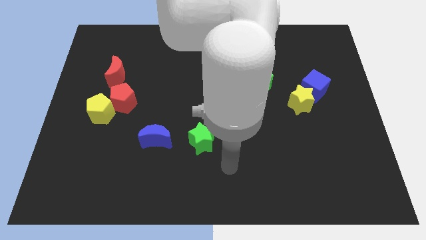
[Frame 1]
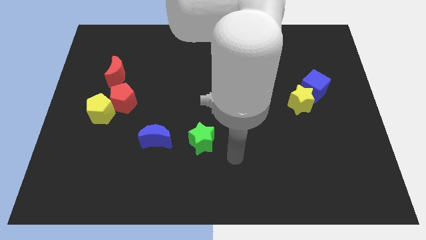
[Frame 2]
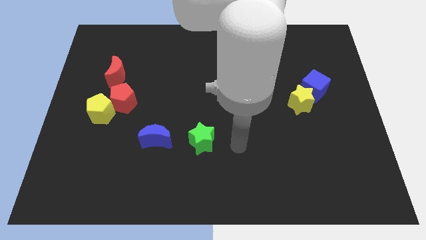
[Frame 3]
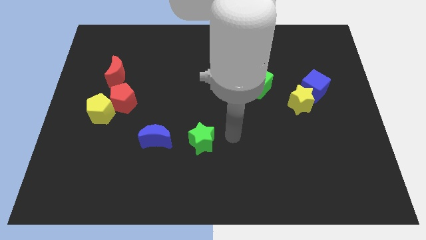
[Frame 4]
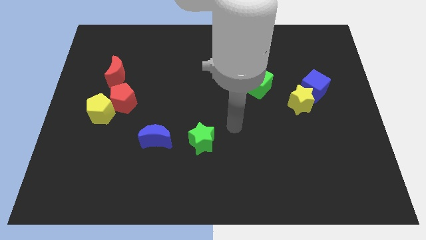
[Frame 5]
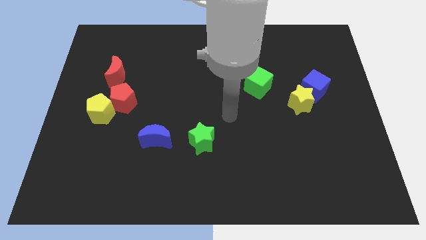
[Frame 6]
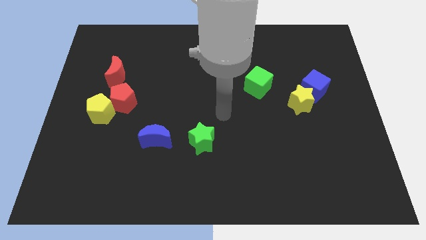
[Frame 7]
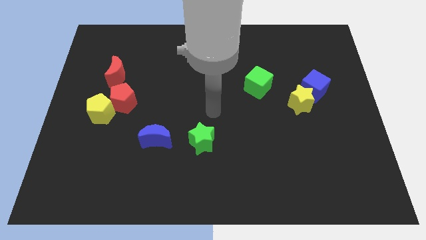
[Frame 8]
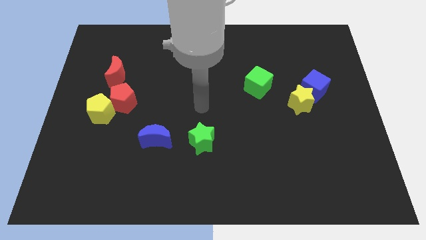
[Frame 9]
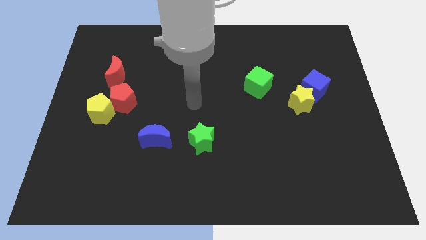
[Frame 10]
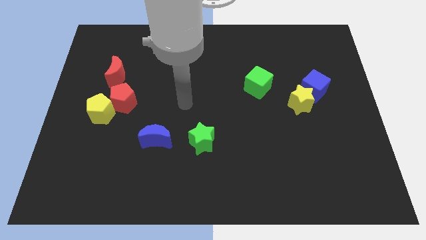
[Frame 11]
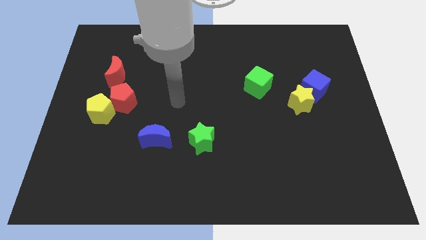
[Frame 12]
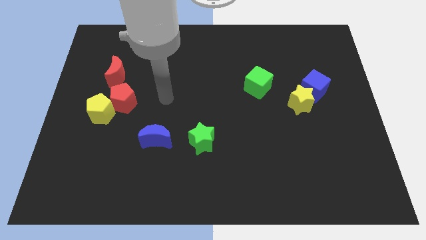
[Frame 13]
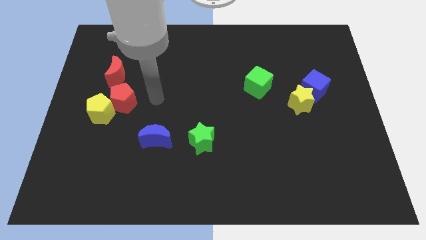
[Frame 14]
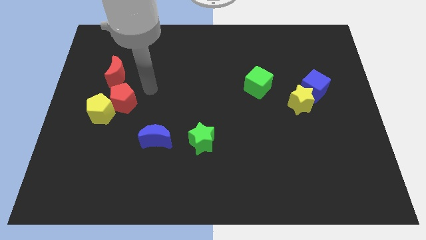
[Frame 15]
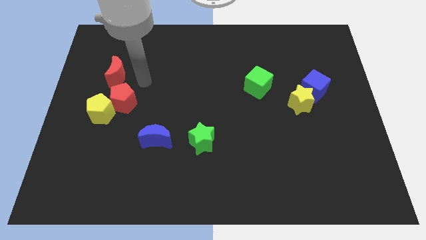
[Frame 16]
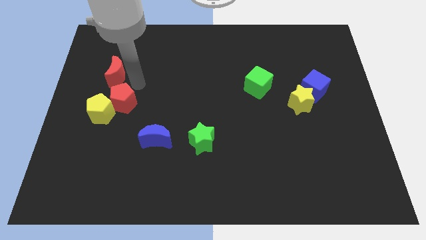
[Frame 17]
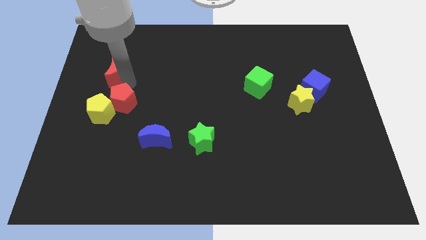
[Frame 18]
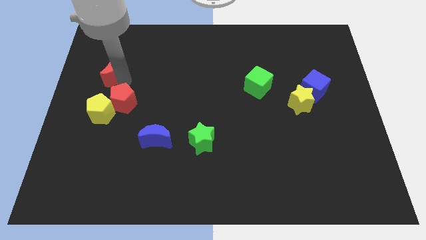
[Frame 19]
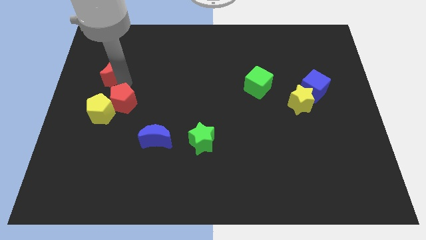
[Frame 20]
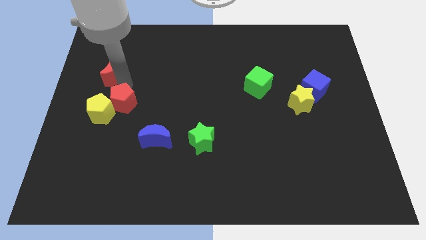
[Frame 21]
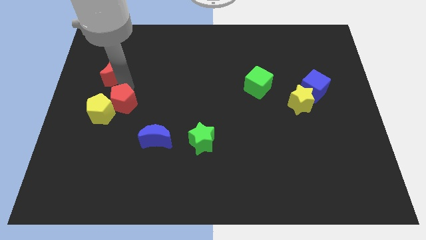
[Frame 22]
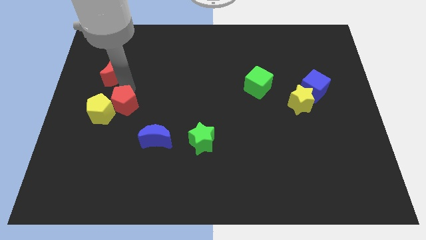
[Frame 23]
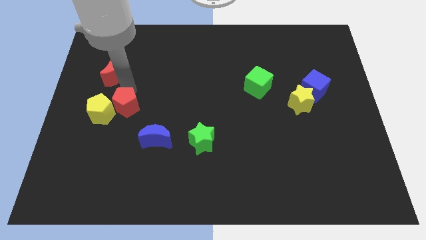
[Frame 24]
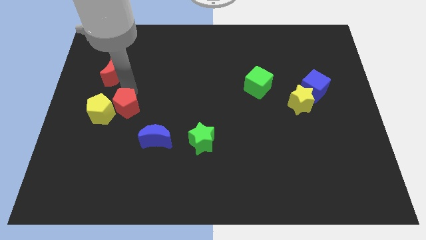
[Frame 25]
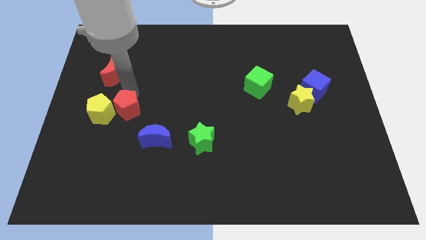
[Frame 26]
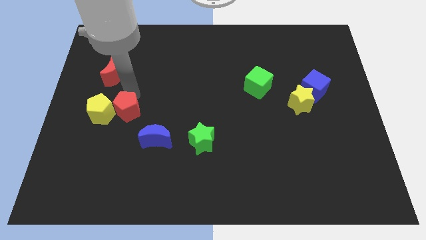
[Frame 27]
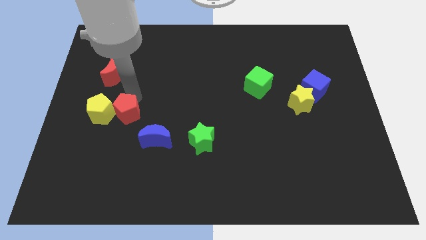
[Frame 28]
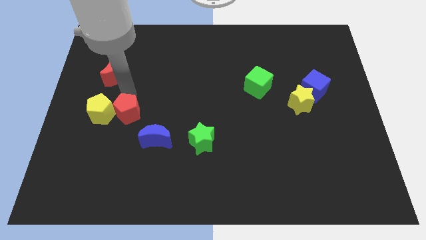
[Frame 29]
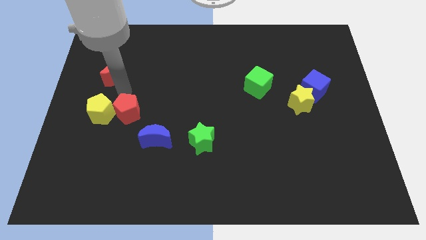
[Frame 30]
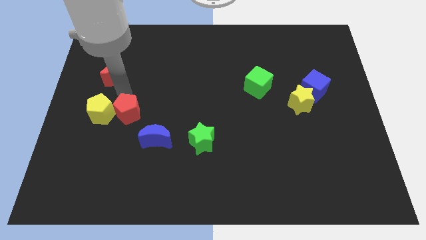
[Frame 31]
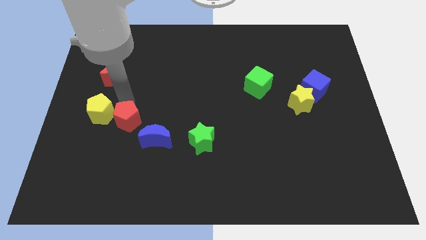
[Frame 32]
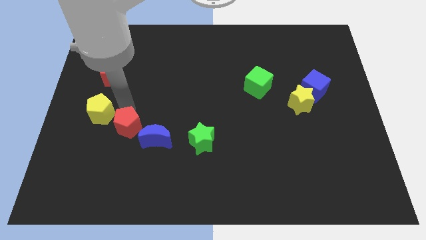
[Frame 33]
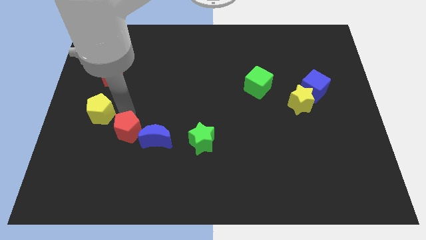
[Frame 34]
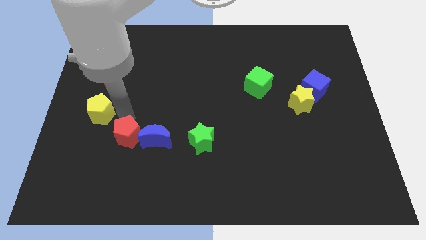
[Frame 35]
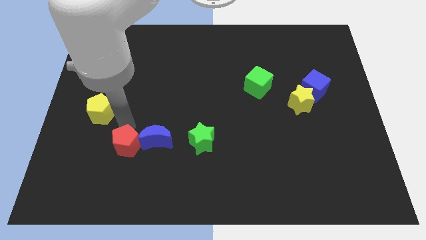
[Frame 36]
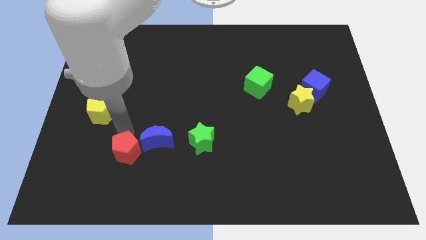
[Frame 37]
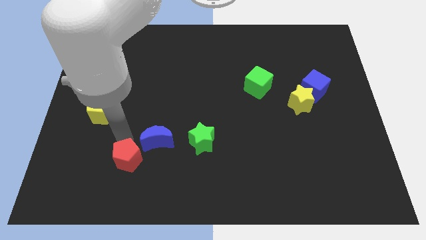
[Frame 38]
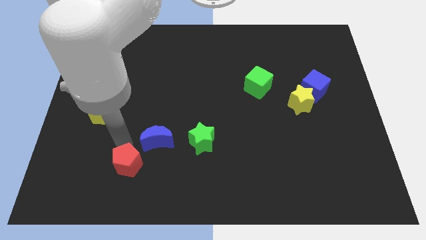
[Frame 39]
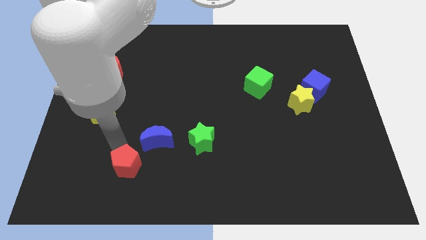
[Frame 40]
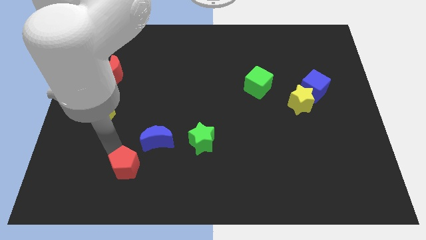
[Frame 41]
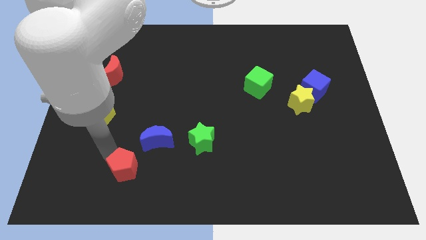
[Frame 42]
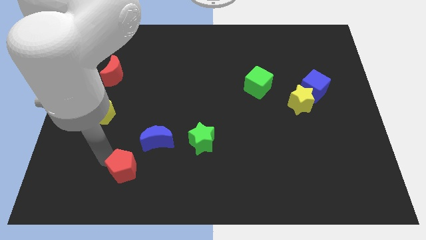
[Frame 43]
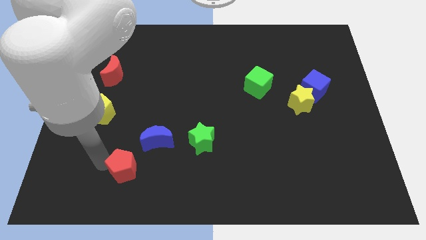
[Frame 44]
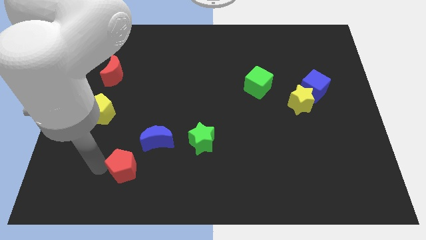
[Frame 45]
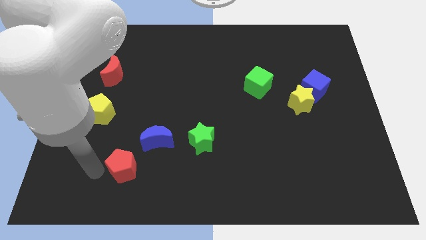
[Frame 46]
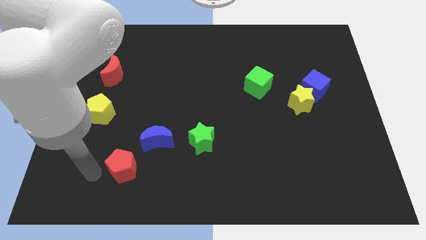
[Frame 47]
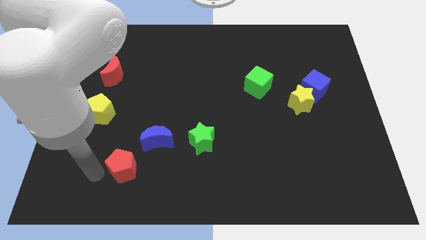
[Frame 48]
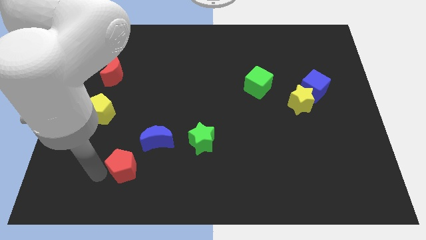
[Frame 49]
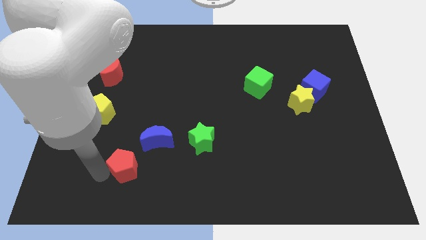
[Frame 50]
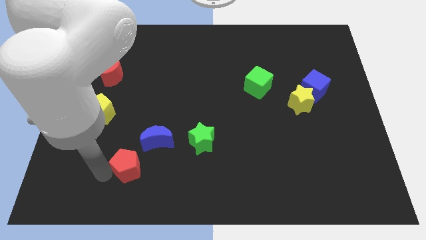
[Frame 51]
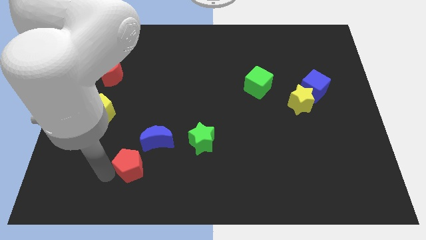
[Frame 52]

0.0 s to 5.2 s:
slide the red pentagon to the bottom of the blue moon

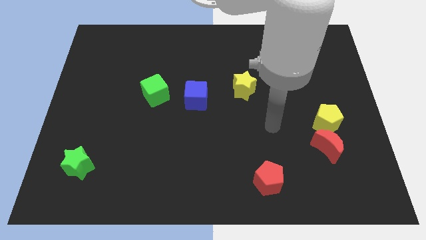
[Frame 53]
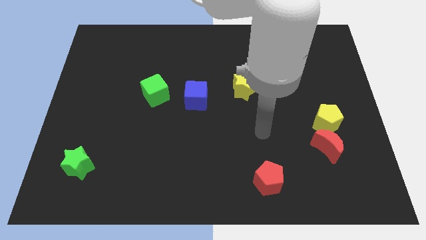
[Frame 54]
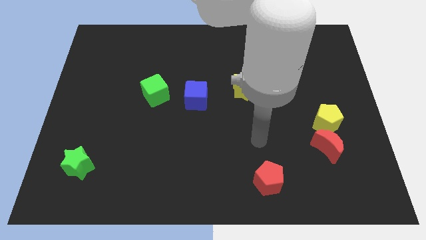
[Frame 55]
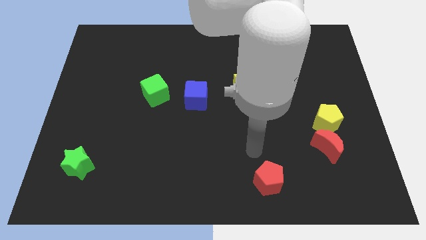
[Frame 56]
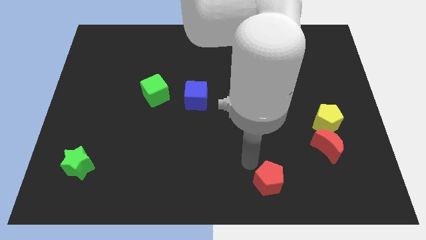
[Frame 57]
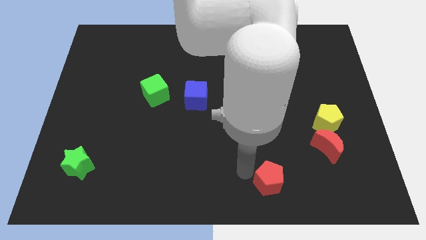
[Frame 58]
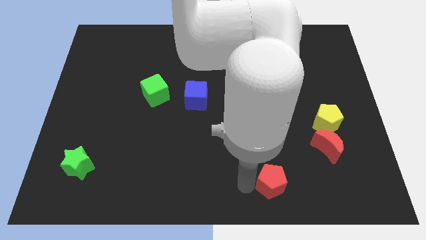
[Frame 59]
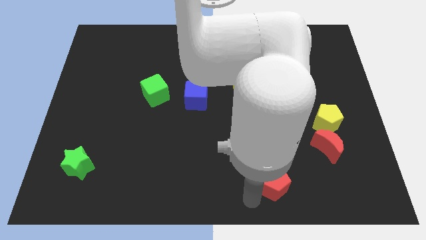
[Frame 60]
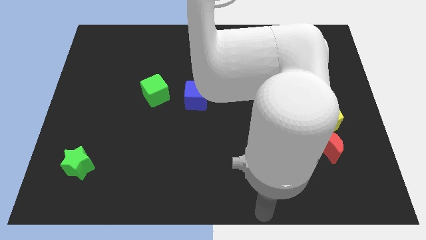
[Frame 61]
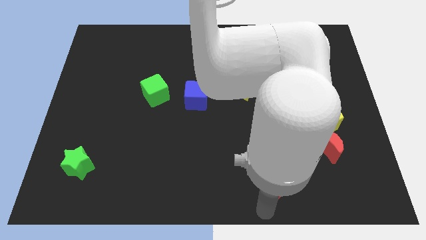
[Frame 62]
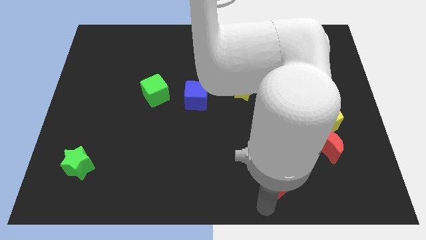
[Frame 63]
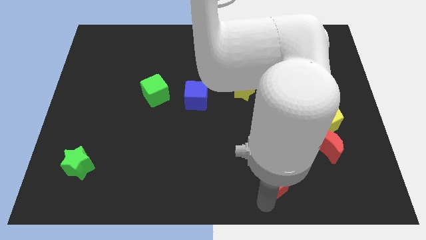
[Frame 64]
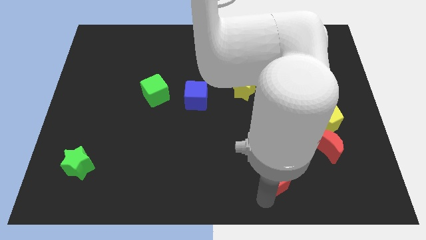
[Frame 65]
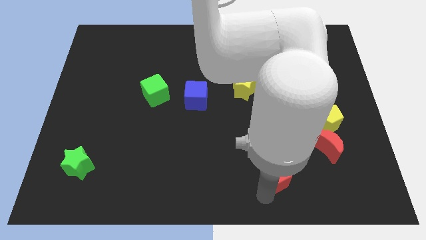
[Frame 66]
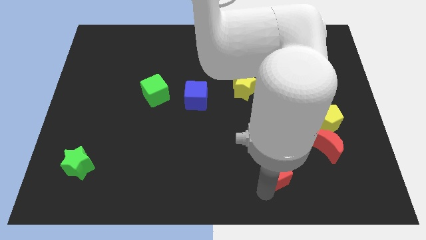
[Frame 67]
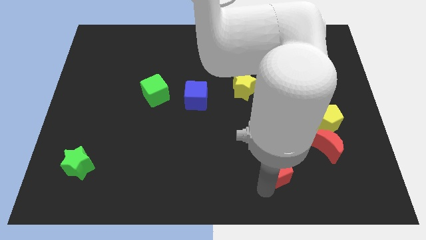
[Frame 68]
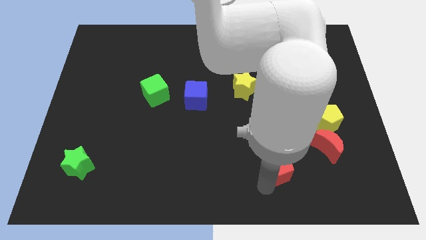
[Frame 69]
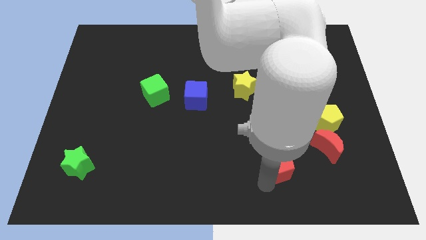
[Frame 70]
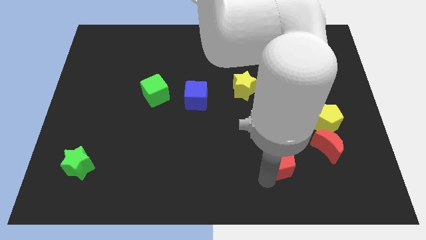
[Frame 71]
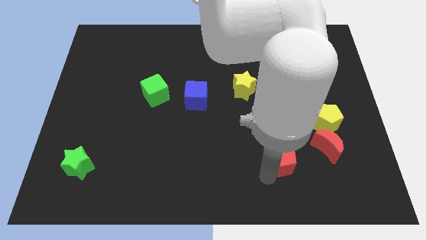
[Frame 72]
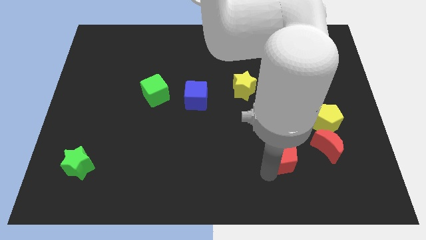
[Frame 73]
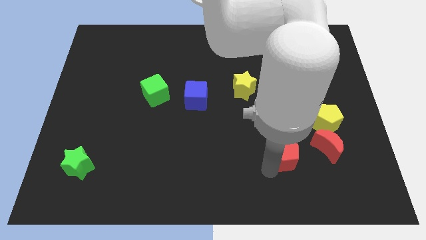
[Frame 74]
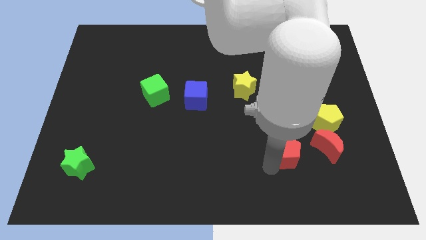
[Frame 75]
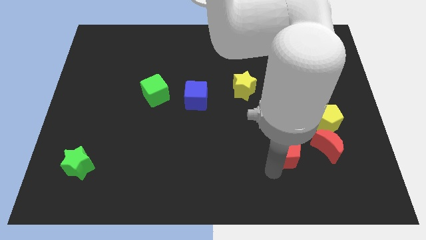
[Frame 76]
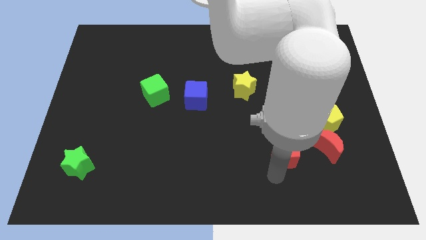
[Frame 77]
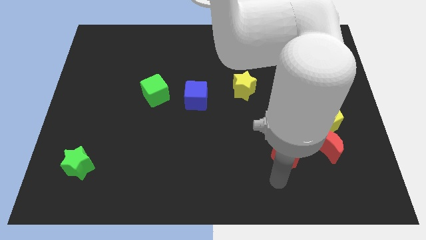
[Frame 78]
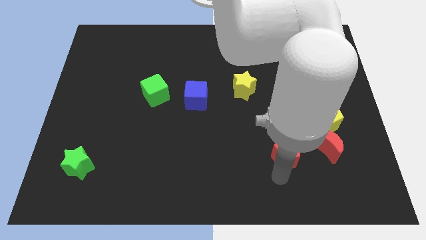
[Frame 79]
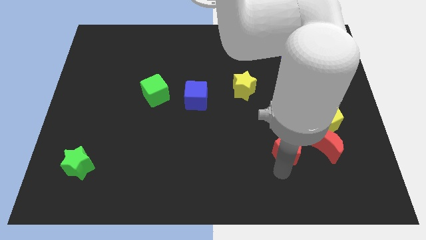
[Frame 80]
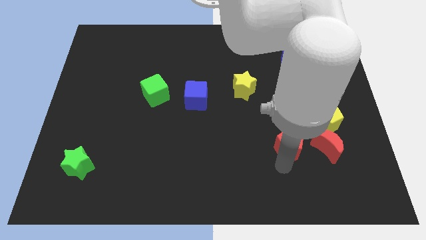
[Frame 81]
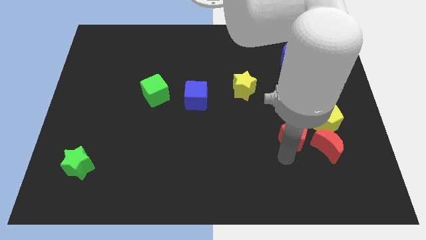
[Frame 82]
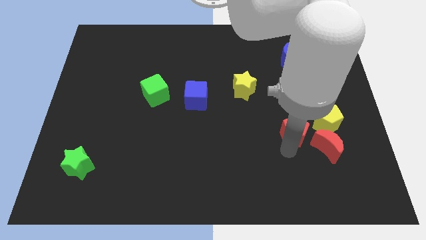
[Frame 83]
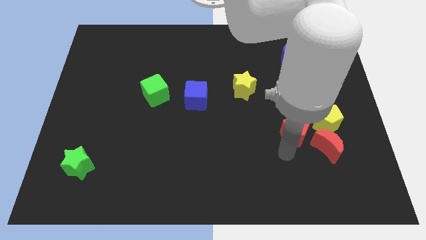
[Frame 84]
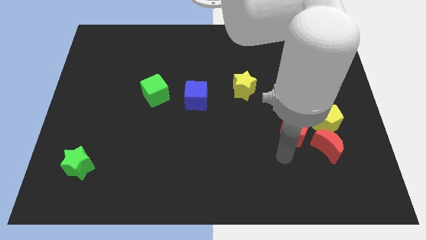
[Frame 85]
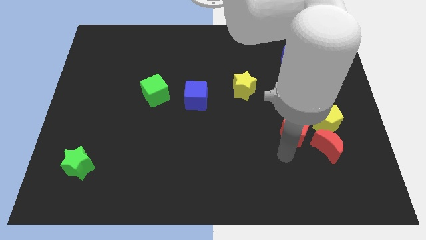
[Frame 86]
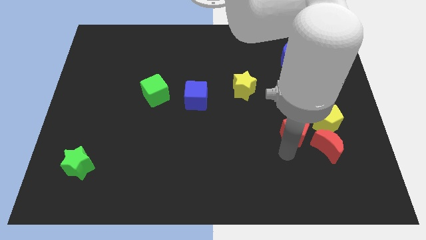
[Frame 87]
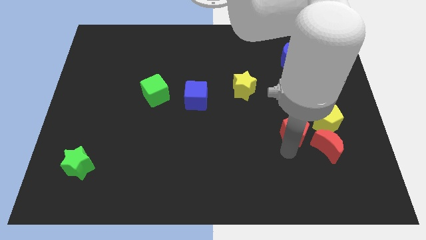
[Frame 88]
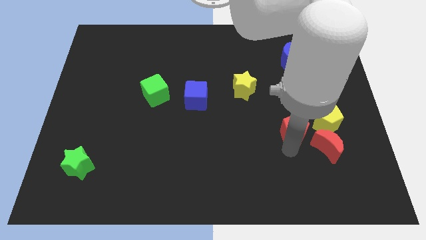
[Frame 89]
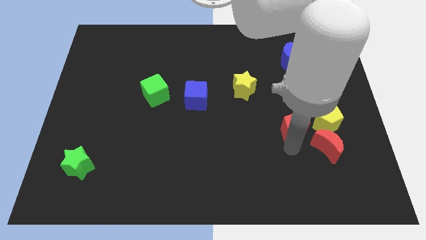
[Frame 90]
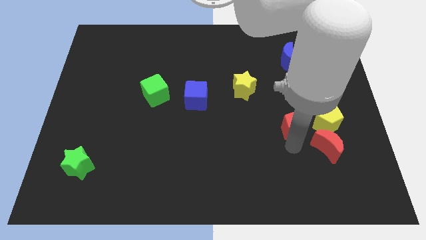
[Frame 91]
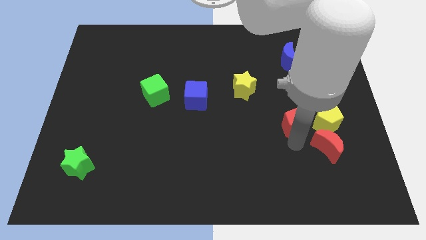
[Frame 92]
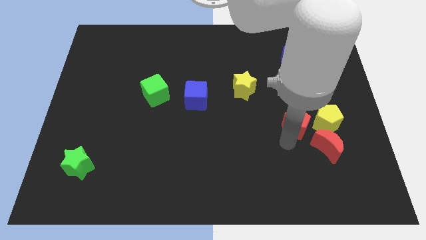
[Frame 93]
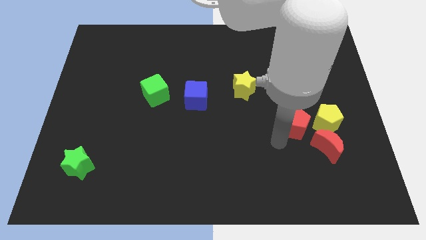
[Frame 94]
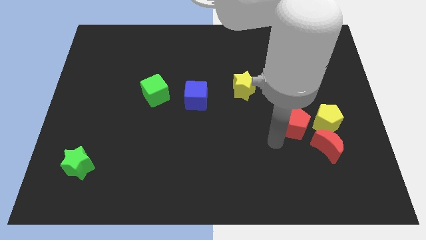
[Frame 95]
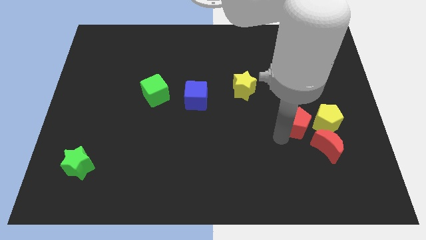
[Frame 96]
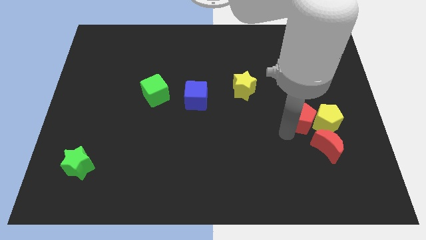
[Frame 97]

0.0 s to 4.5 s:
push the red pentagon to the top of the red moon
